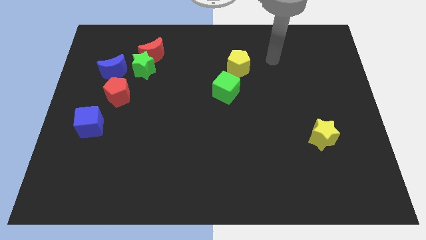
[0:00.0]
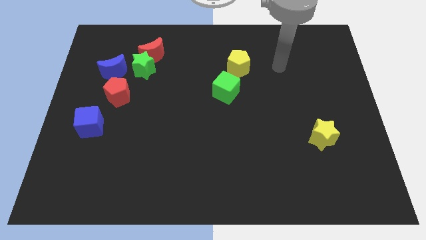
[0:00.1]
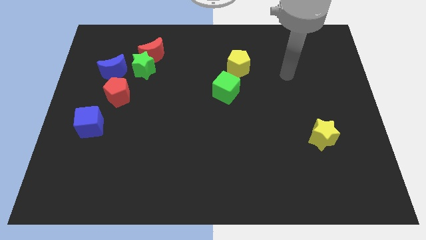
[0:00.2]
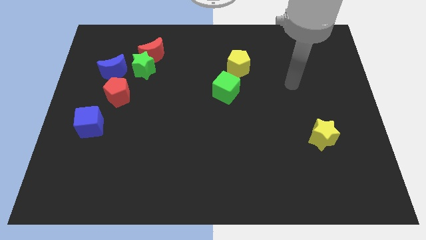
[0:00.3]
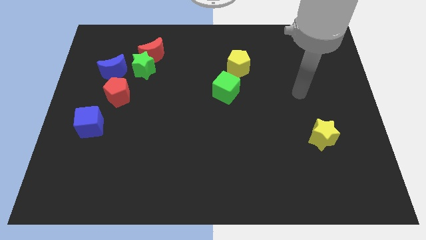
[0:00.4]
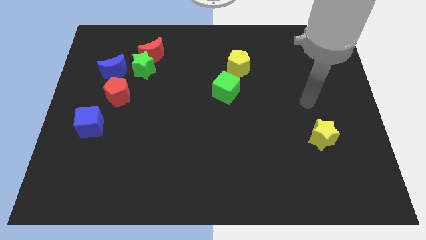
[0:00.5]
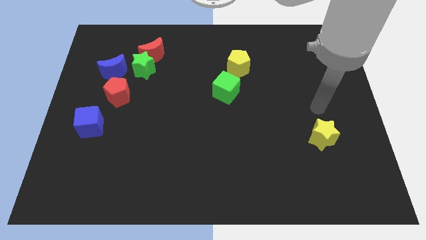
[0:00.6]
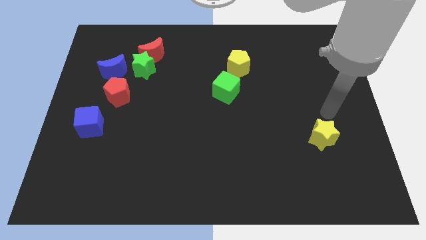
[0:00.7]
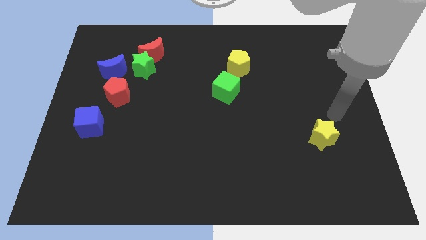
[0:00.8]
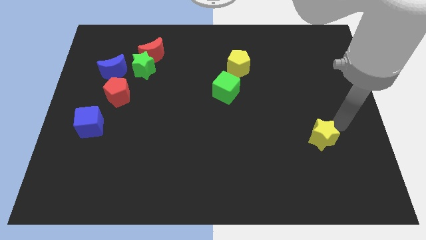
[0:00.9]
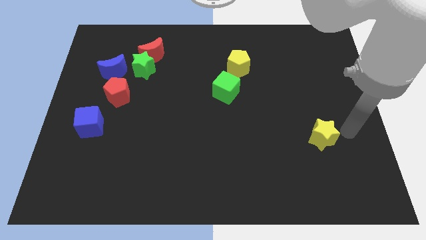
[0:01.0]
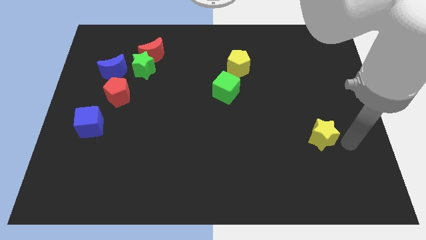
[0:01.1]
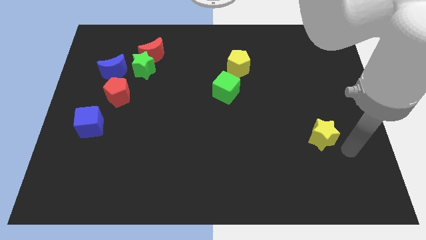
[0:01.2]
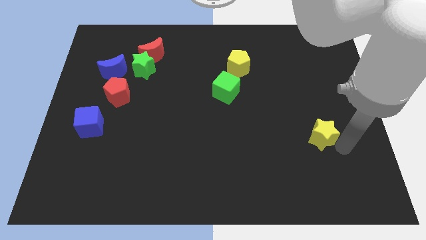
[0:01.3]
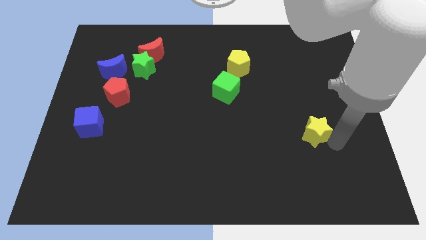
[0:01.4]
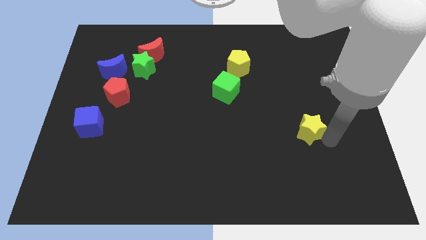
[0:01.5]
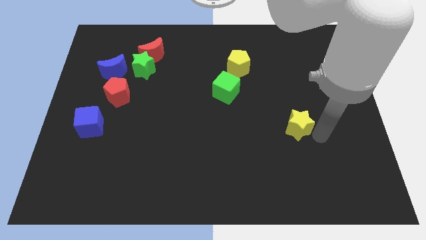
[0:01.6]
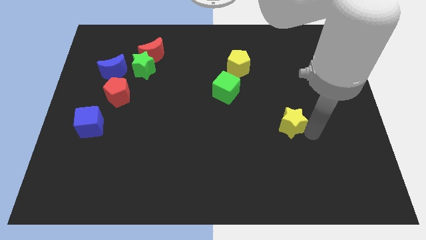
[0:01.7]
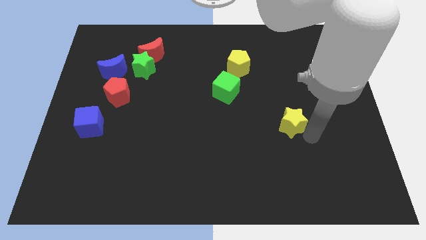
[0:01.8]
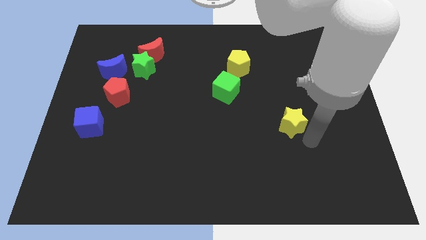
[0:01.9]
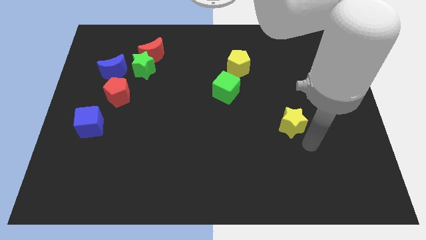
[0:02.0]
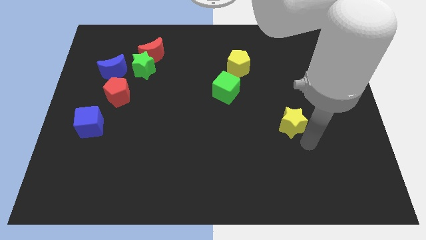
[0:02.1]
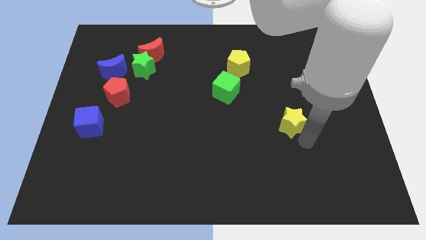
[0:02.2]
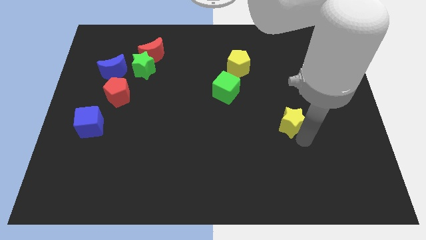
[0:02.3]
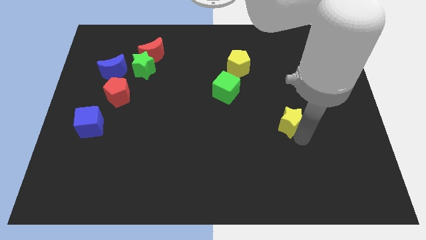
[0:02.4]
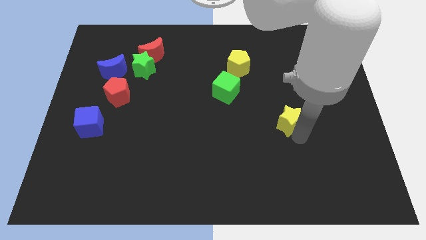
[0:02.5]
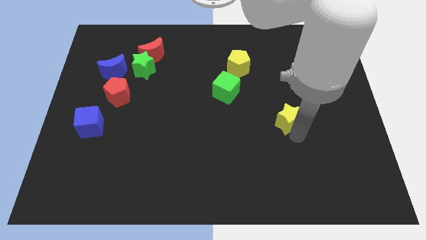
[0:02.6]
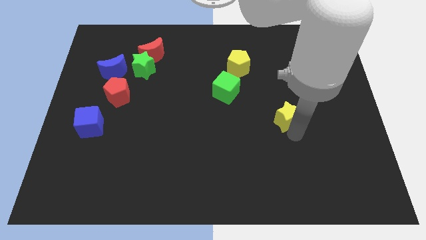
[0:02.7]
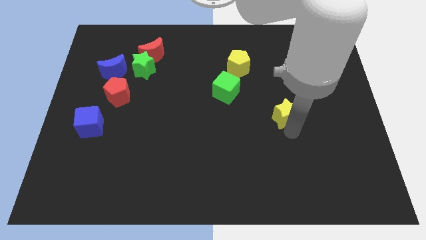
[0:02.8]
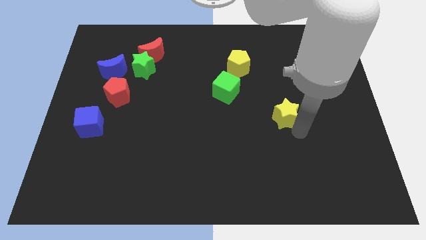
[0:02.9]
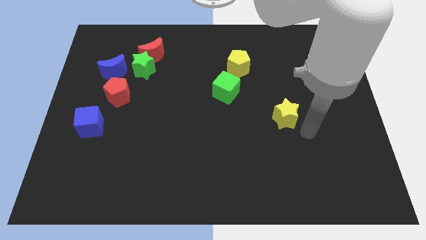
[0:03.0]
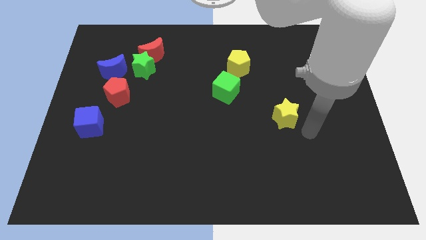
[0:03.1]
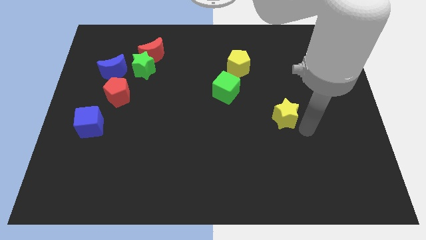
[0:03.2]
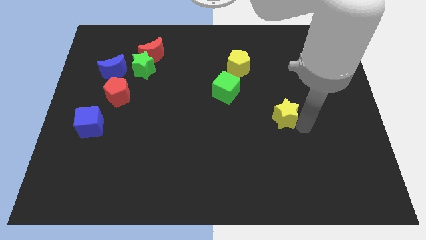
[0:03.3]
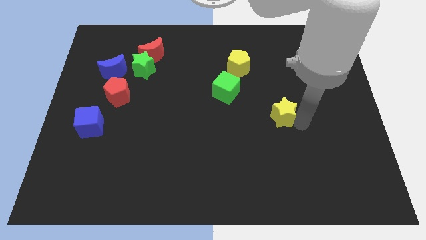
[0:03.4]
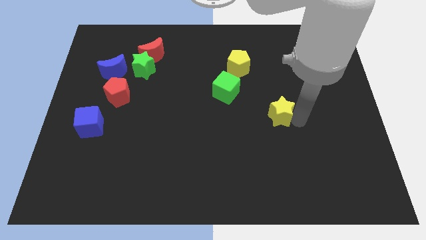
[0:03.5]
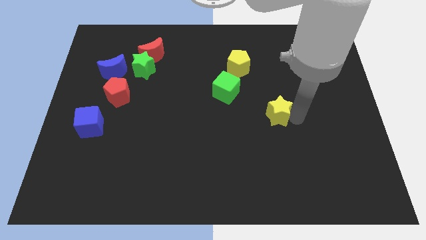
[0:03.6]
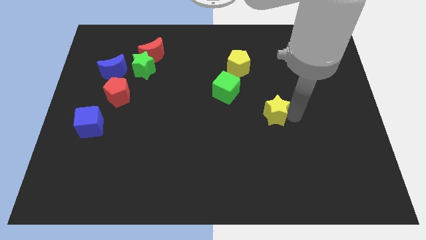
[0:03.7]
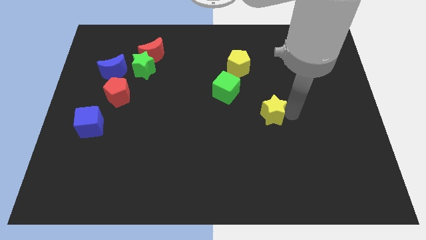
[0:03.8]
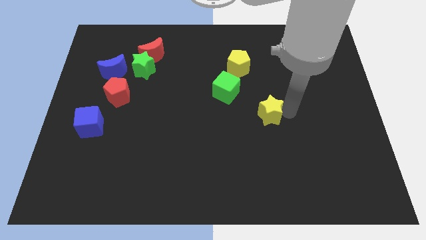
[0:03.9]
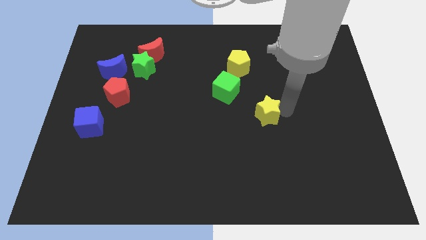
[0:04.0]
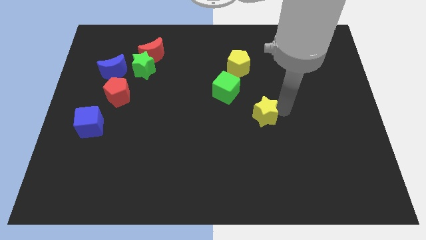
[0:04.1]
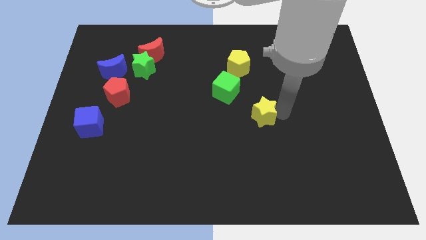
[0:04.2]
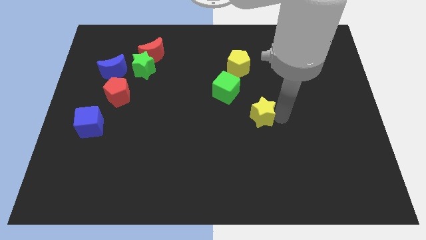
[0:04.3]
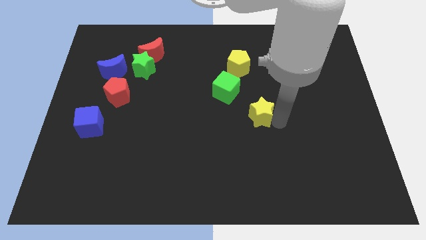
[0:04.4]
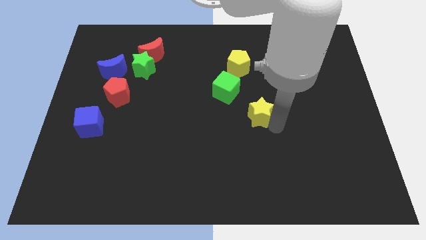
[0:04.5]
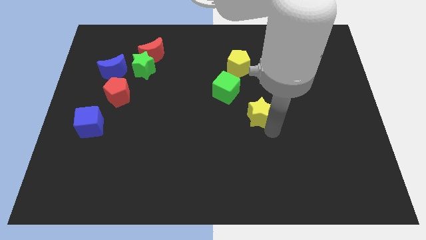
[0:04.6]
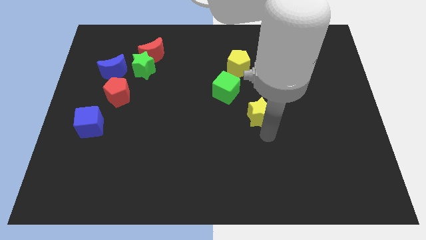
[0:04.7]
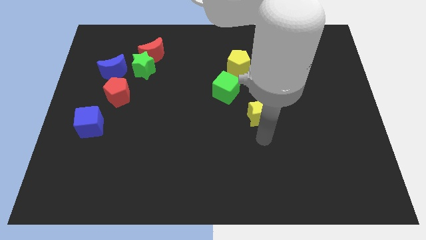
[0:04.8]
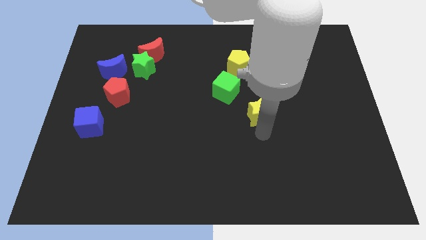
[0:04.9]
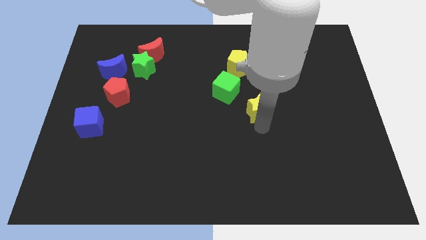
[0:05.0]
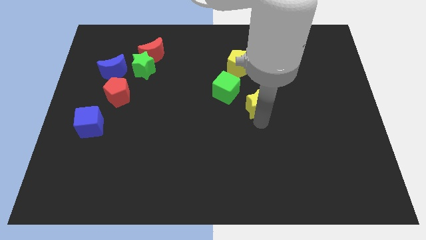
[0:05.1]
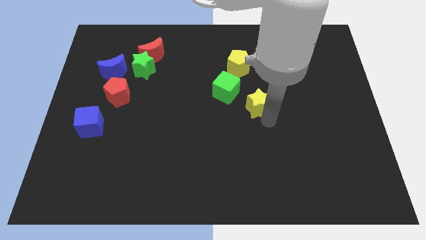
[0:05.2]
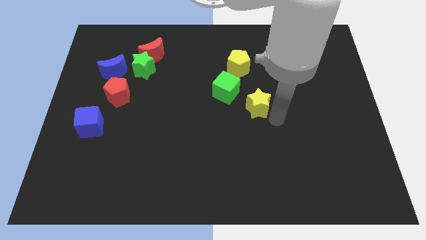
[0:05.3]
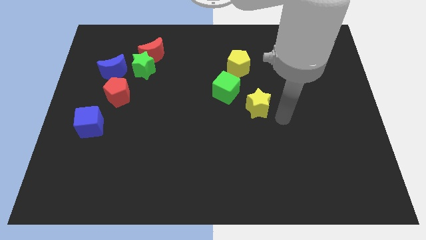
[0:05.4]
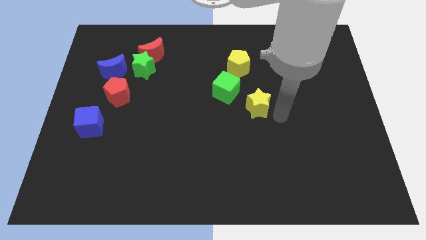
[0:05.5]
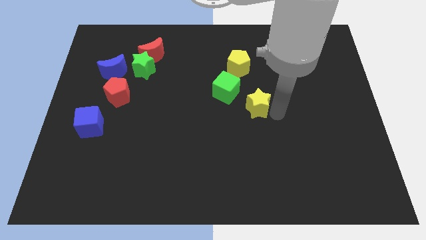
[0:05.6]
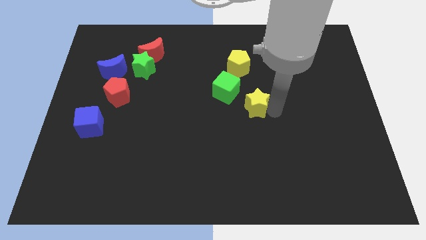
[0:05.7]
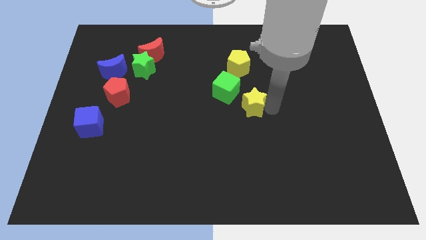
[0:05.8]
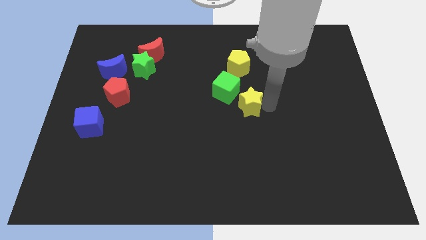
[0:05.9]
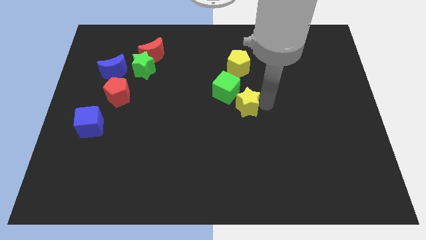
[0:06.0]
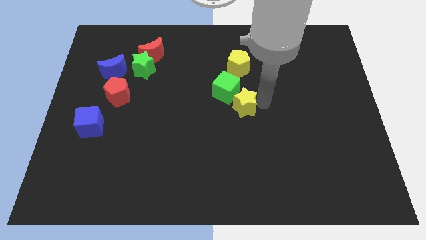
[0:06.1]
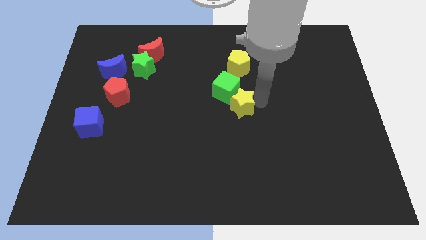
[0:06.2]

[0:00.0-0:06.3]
push the yellow star close to the green cube
